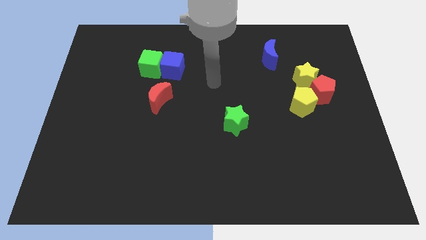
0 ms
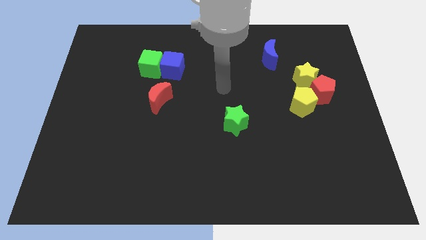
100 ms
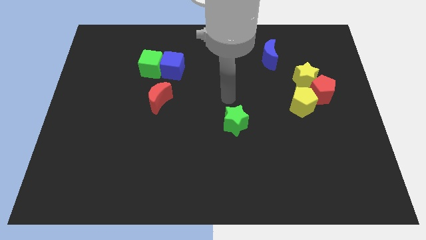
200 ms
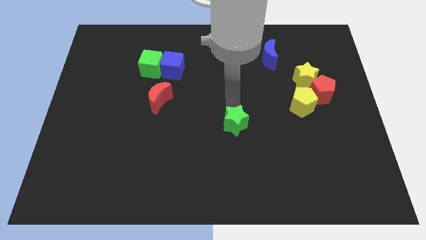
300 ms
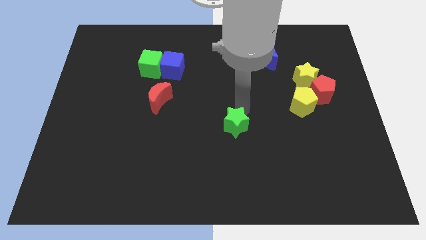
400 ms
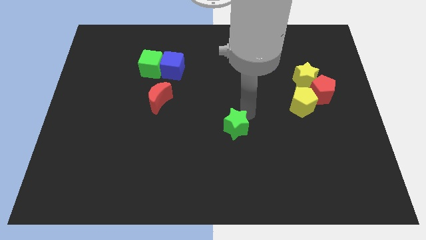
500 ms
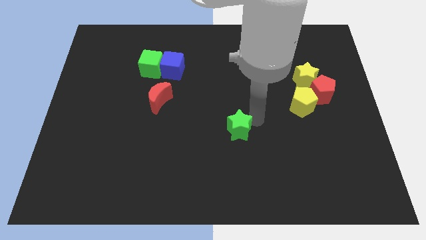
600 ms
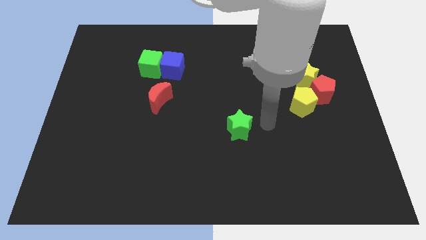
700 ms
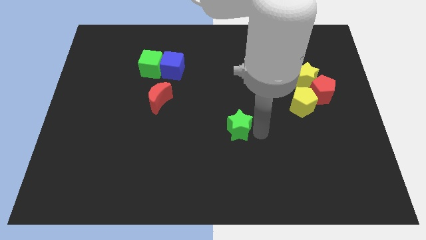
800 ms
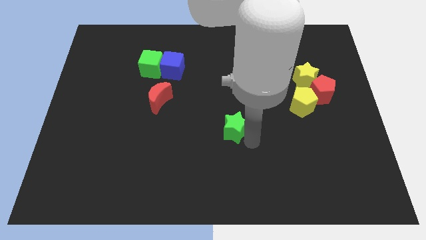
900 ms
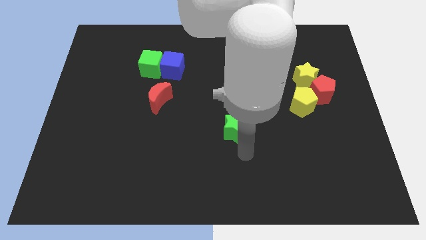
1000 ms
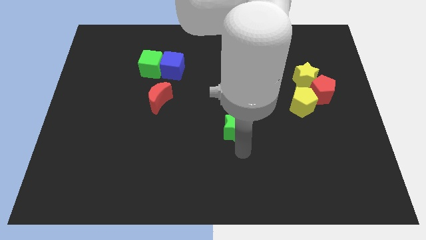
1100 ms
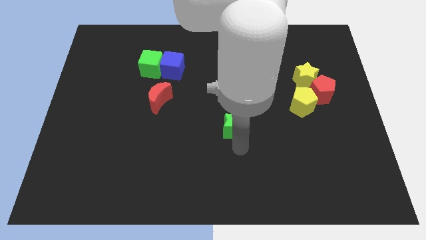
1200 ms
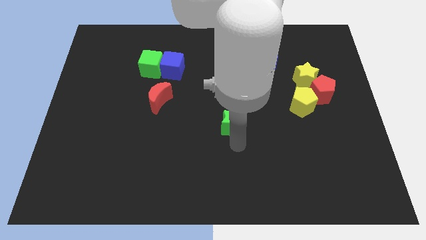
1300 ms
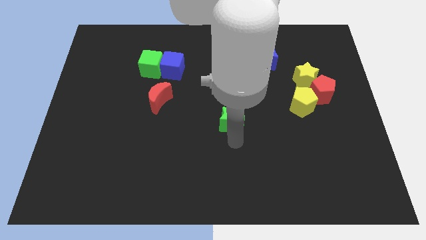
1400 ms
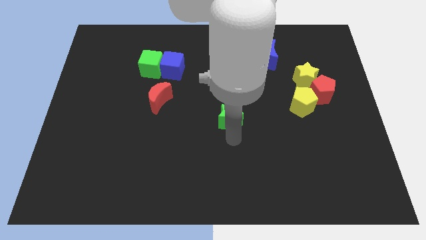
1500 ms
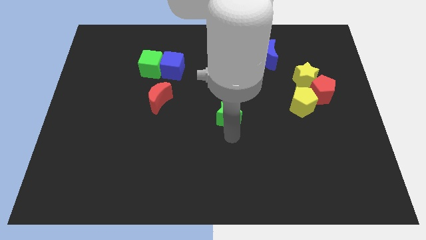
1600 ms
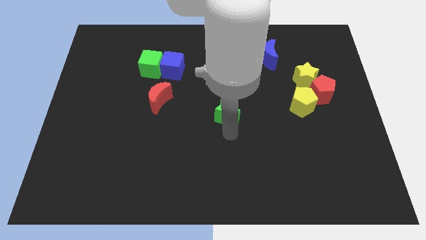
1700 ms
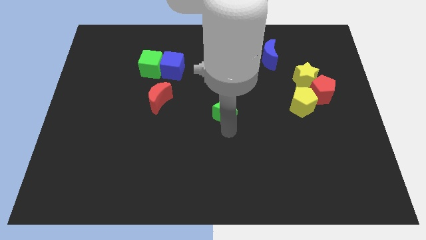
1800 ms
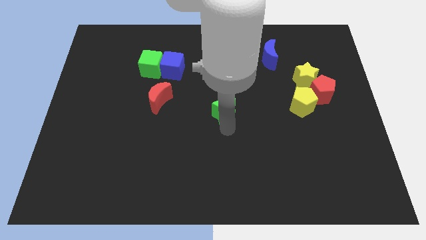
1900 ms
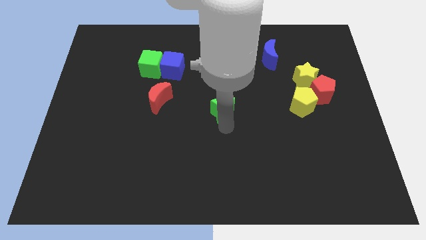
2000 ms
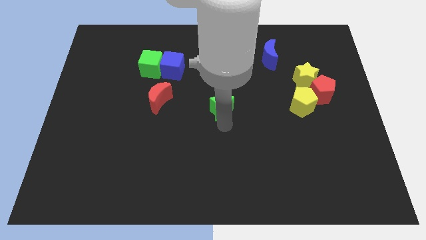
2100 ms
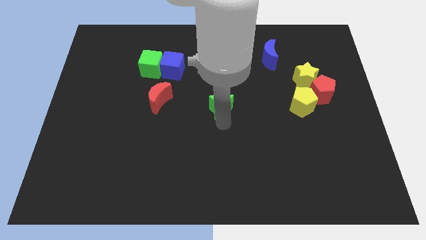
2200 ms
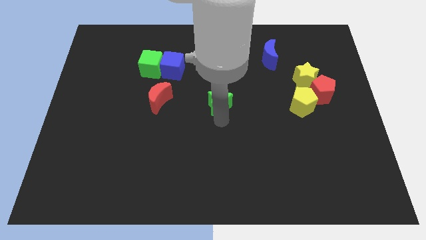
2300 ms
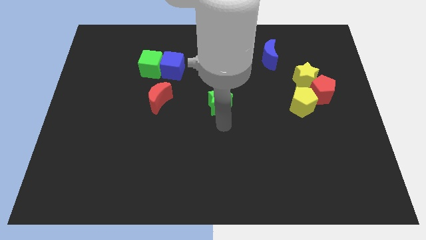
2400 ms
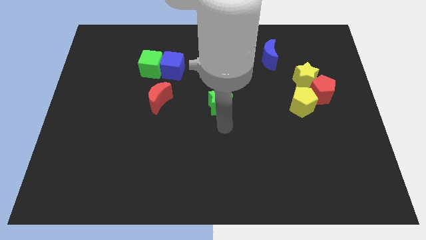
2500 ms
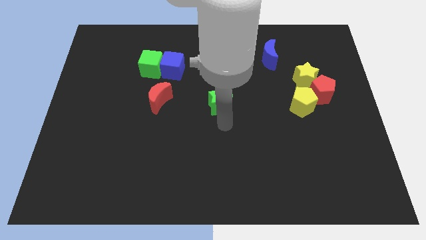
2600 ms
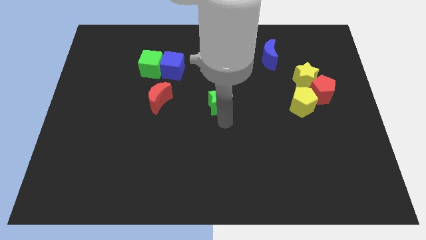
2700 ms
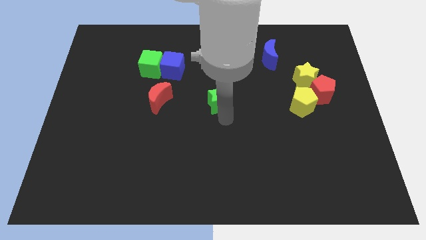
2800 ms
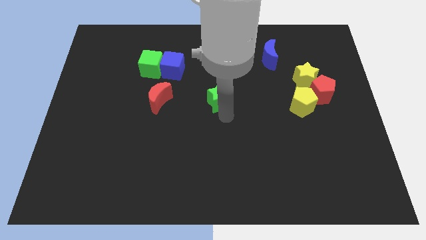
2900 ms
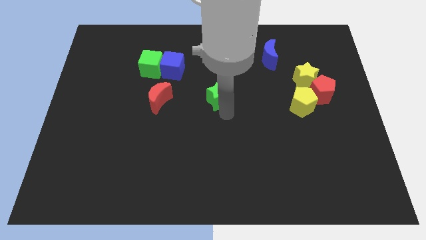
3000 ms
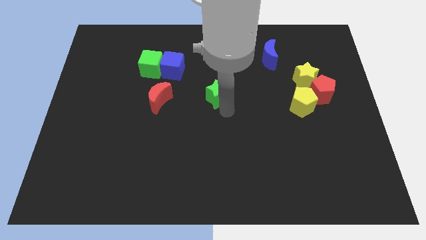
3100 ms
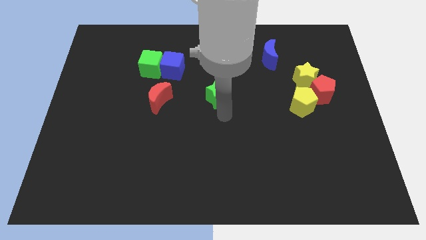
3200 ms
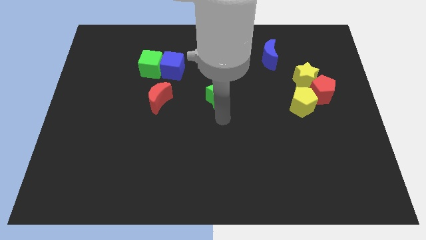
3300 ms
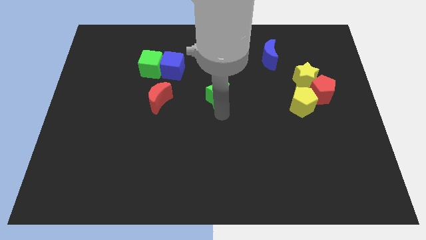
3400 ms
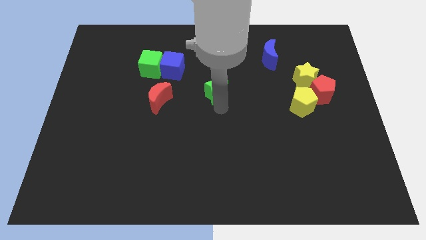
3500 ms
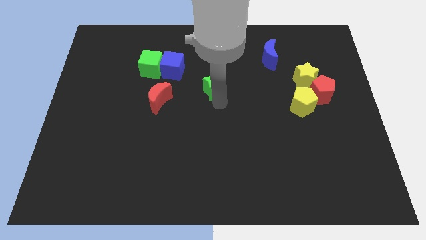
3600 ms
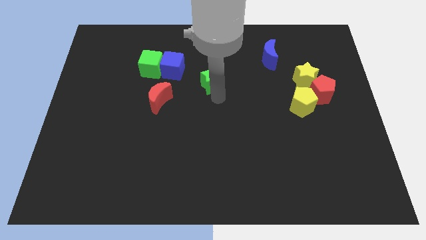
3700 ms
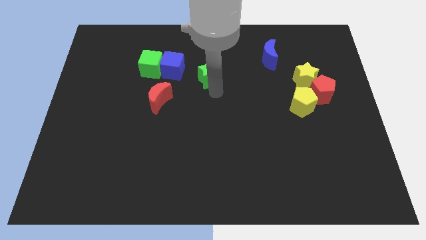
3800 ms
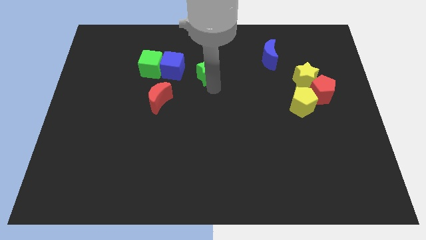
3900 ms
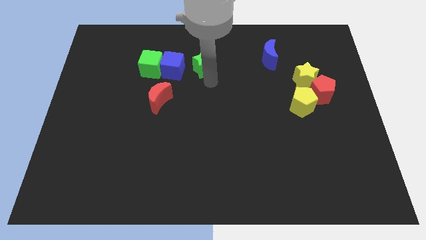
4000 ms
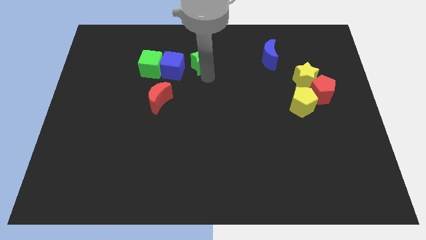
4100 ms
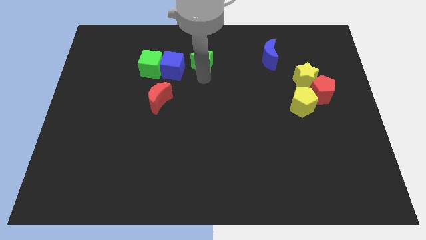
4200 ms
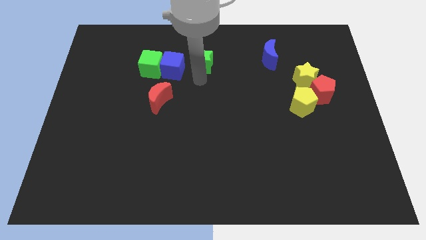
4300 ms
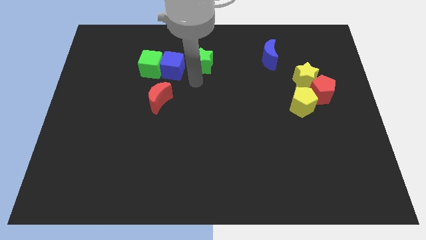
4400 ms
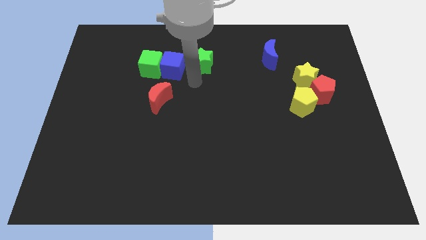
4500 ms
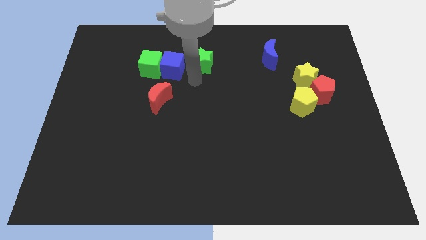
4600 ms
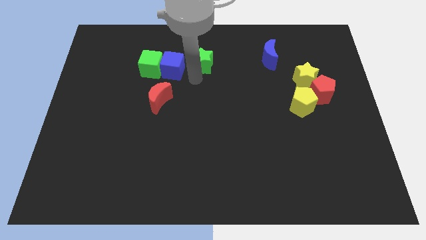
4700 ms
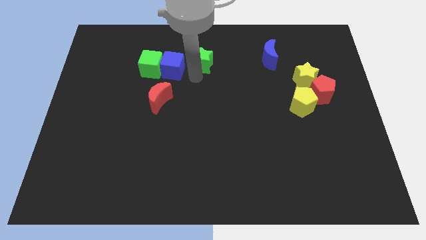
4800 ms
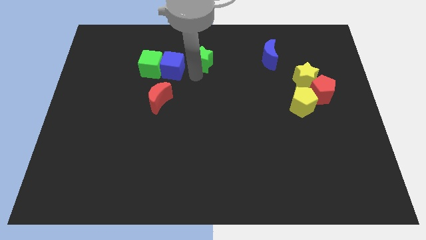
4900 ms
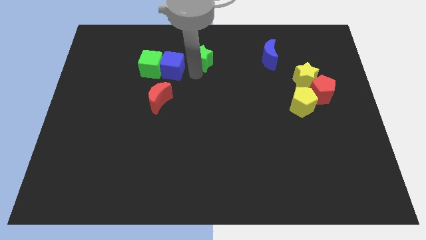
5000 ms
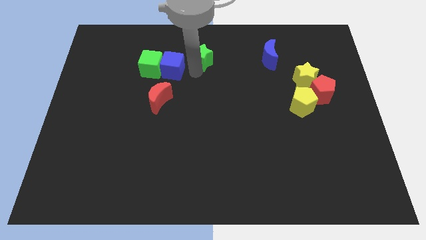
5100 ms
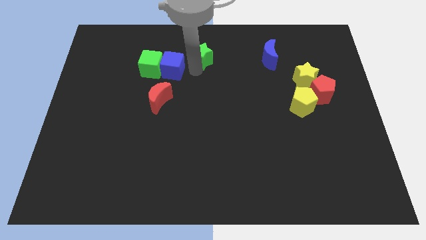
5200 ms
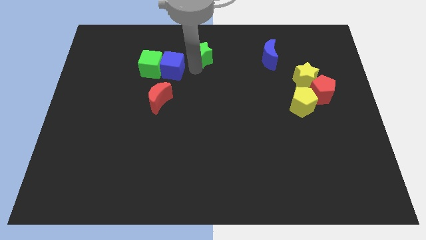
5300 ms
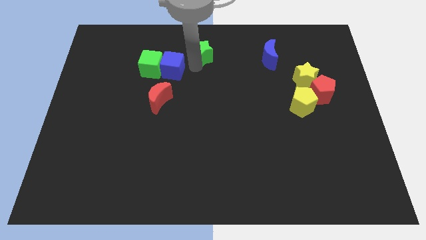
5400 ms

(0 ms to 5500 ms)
push the green star to the towards your base
